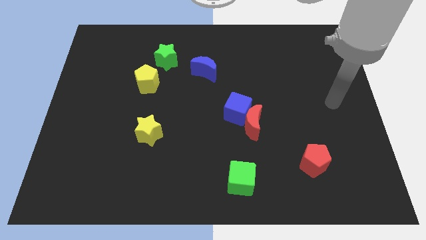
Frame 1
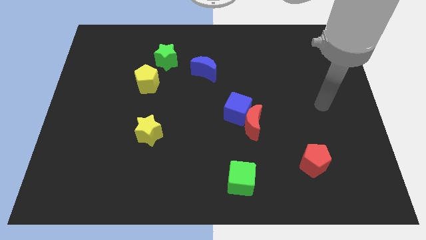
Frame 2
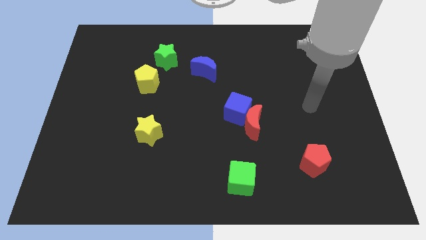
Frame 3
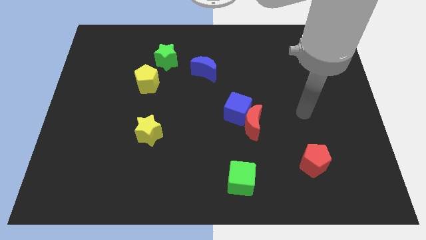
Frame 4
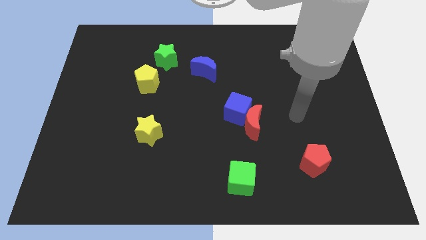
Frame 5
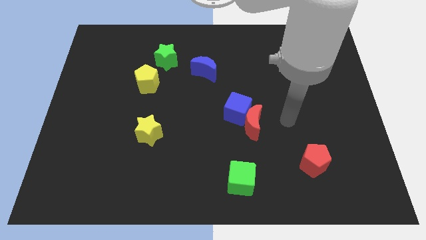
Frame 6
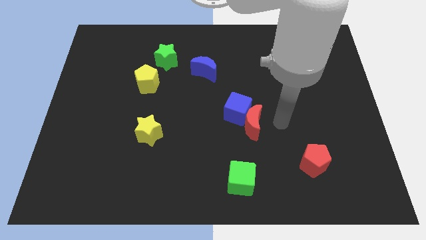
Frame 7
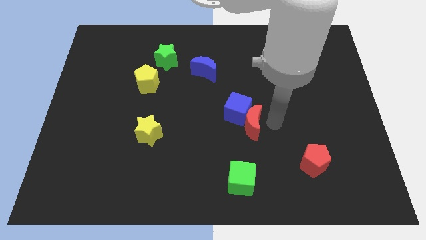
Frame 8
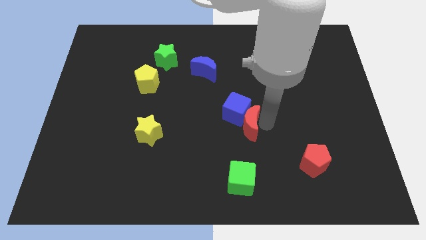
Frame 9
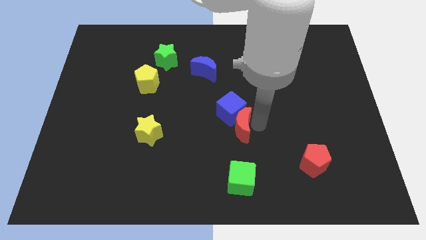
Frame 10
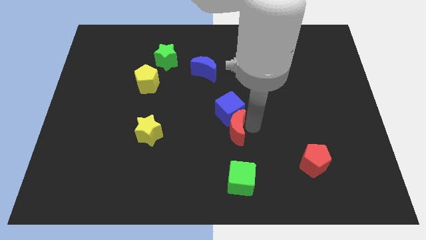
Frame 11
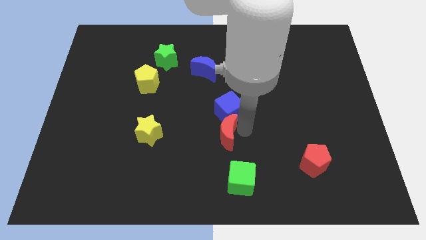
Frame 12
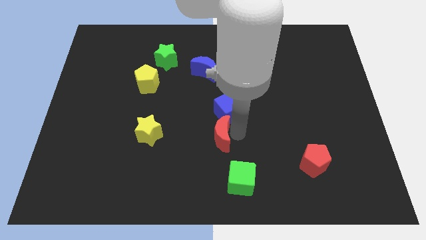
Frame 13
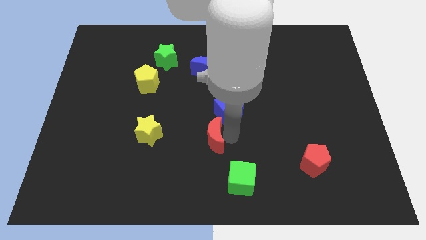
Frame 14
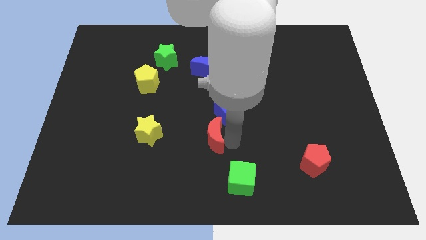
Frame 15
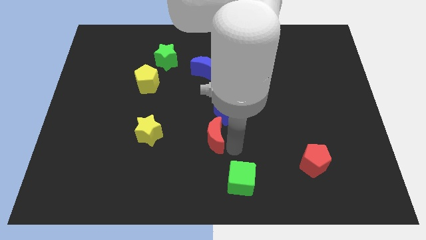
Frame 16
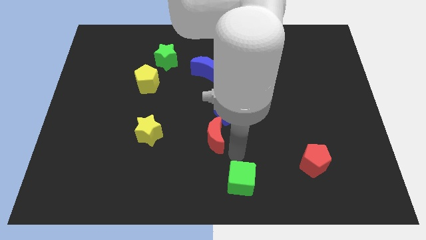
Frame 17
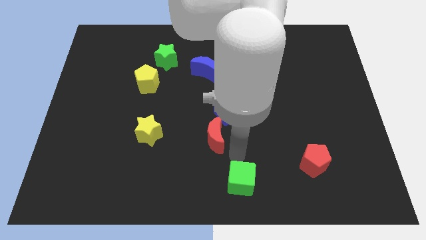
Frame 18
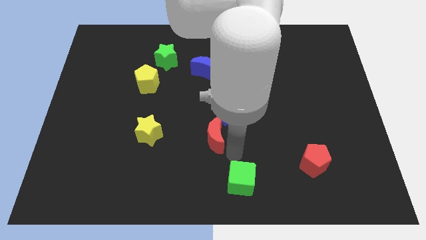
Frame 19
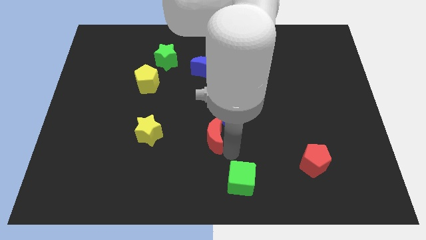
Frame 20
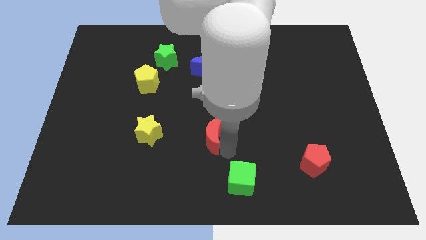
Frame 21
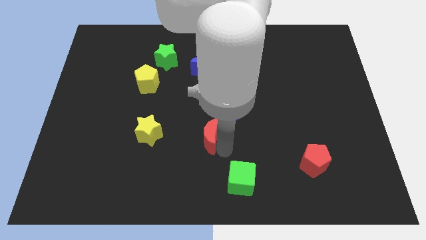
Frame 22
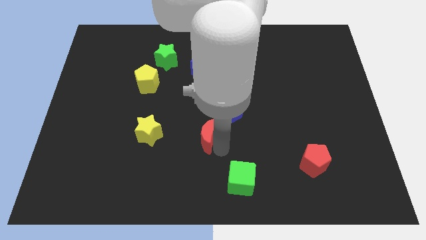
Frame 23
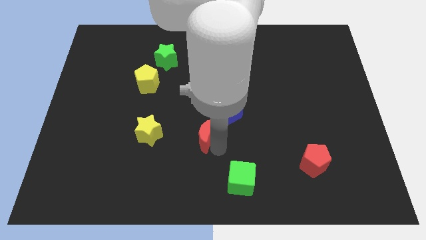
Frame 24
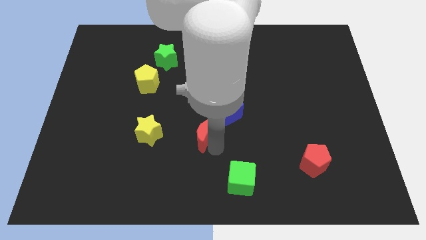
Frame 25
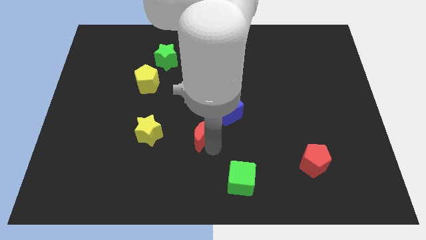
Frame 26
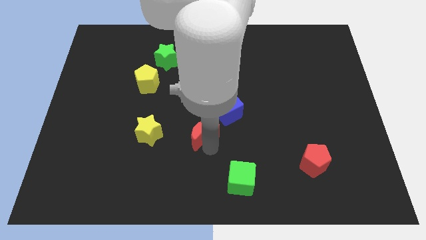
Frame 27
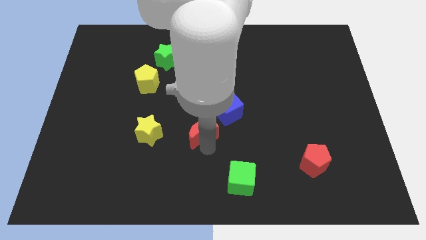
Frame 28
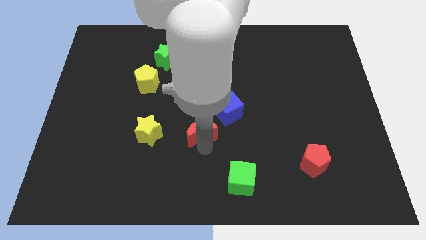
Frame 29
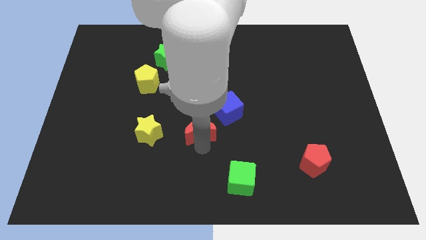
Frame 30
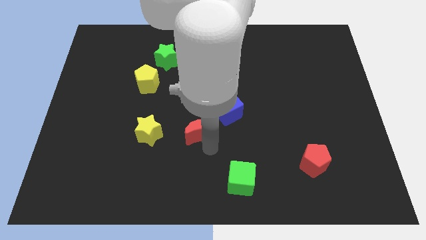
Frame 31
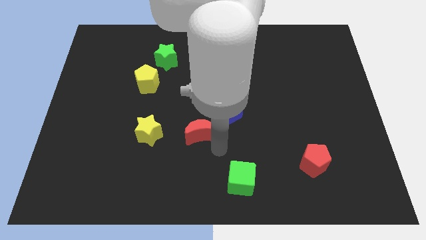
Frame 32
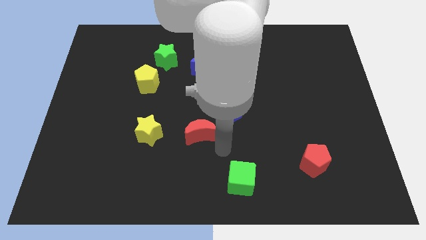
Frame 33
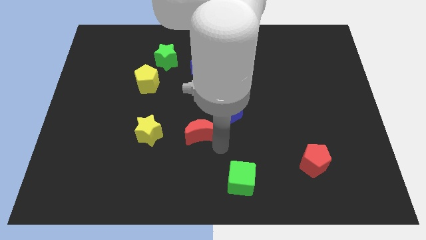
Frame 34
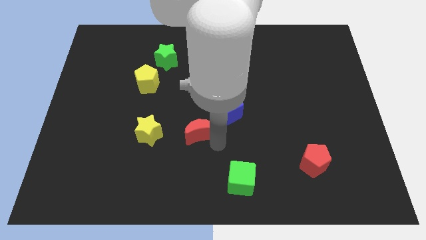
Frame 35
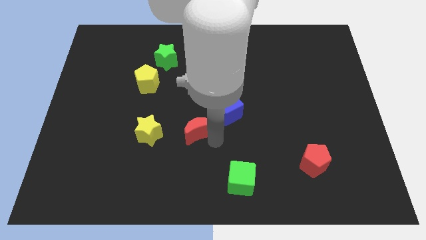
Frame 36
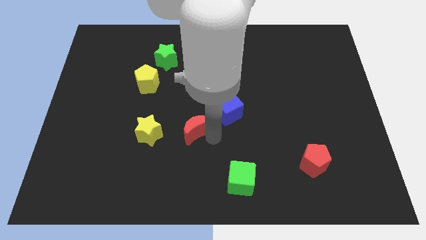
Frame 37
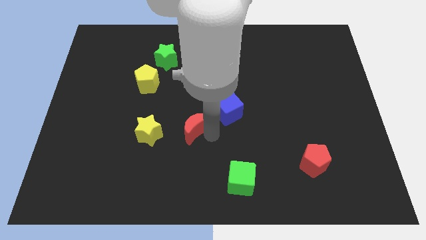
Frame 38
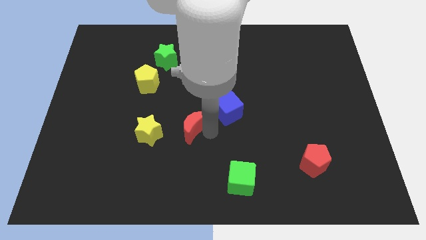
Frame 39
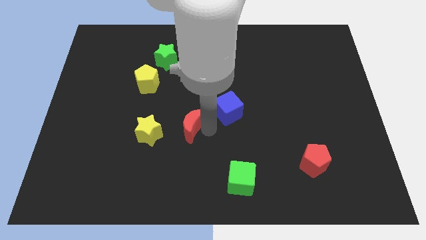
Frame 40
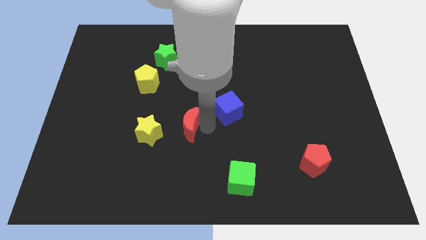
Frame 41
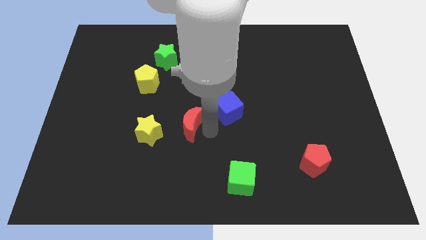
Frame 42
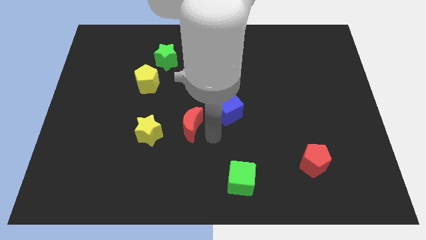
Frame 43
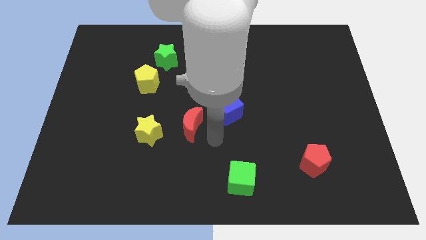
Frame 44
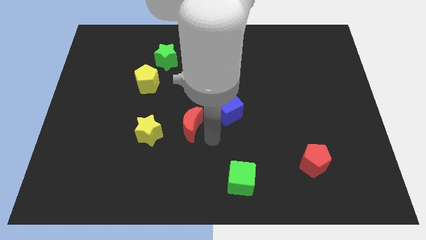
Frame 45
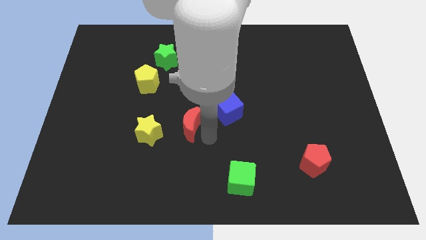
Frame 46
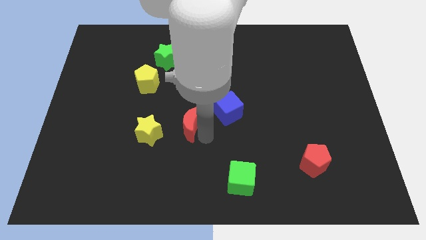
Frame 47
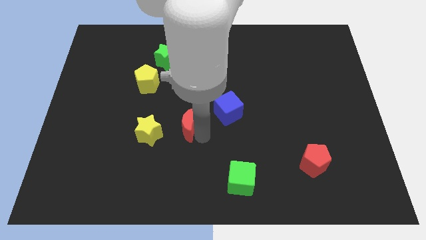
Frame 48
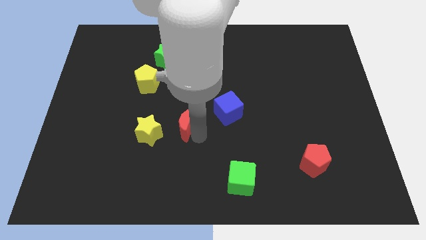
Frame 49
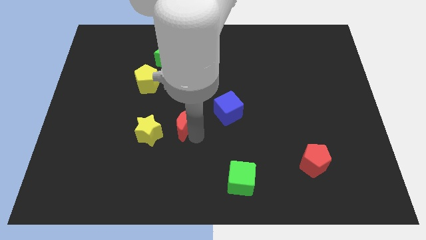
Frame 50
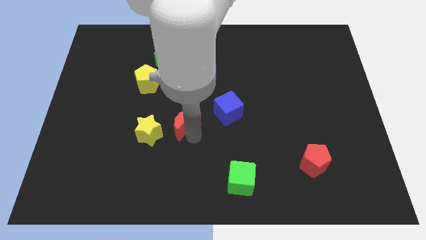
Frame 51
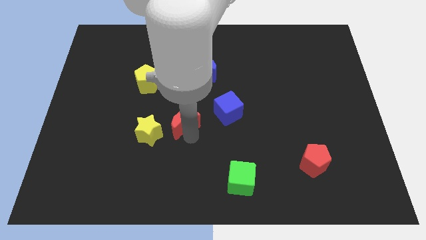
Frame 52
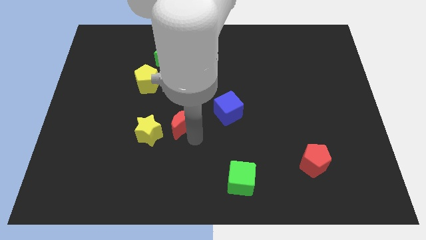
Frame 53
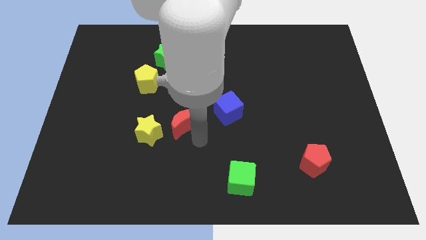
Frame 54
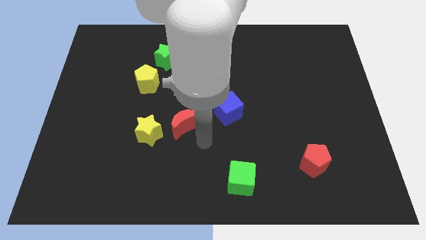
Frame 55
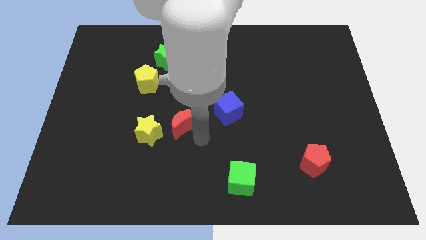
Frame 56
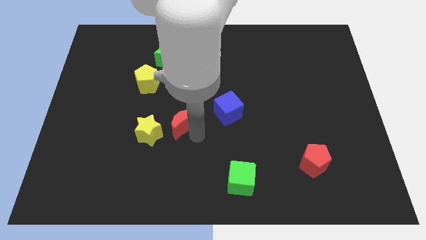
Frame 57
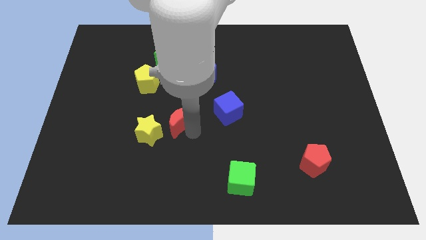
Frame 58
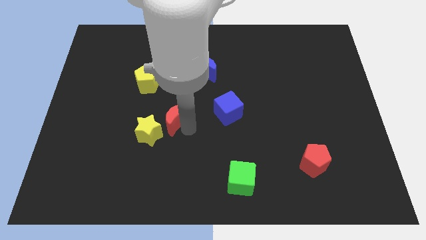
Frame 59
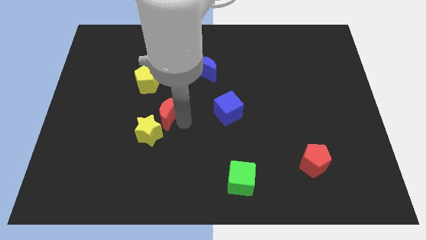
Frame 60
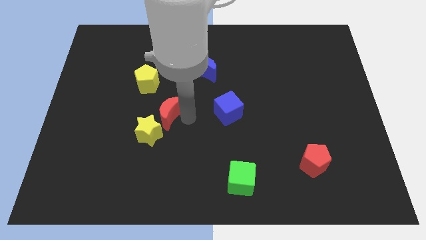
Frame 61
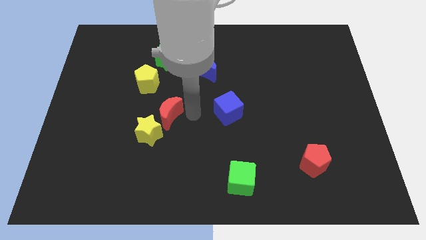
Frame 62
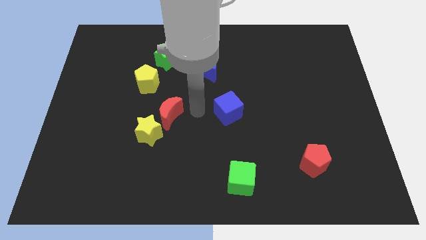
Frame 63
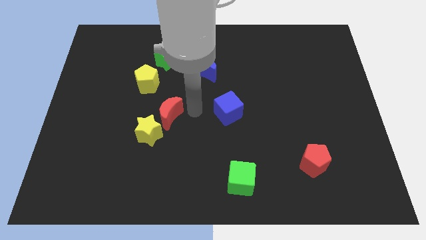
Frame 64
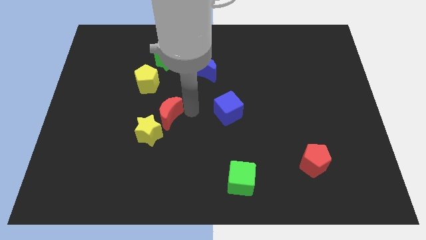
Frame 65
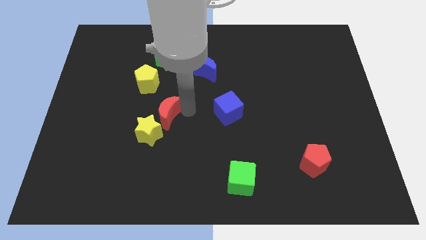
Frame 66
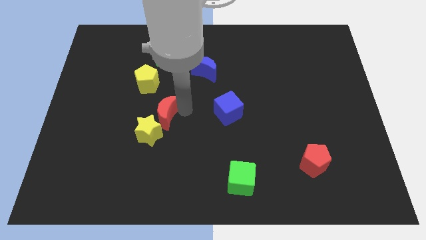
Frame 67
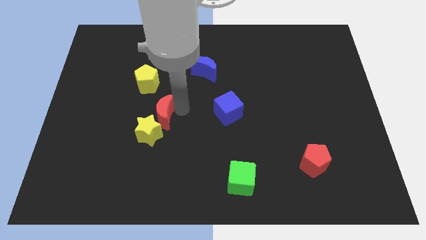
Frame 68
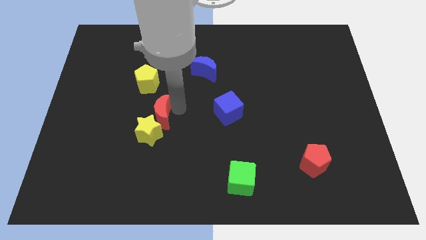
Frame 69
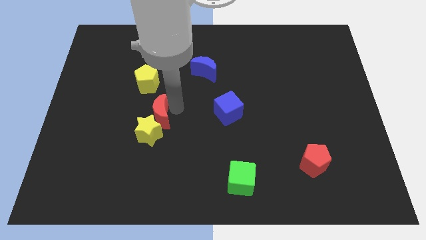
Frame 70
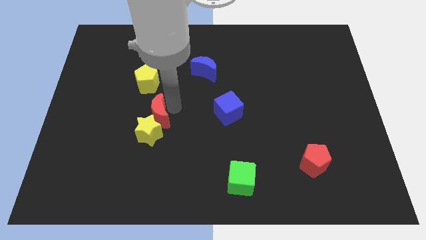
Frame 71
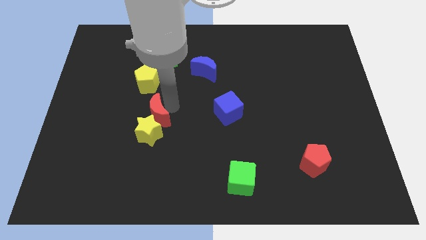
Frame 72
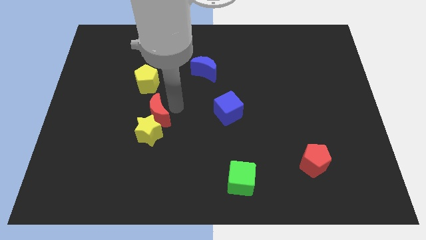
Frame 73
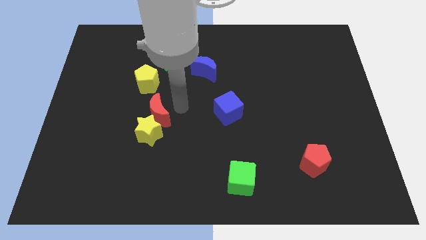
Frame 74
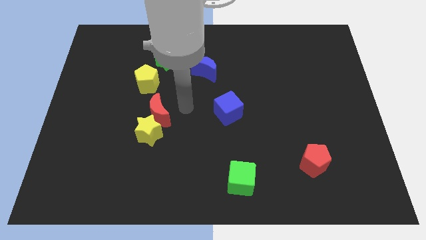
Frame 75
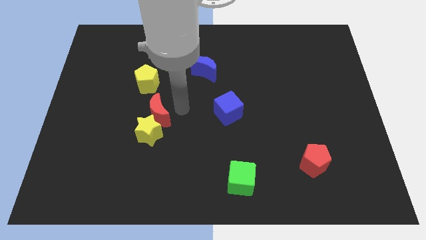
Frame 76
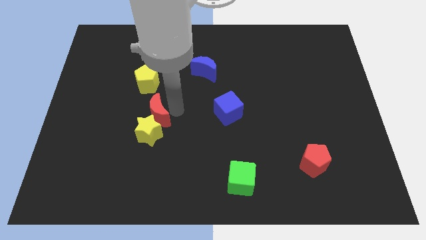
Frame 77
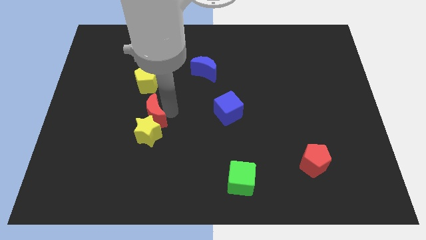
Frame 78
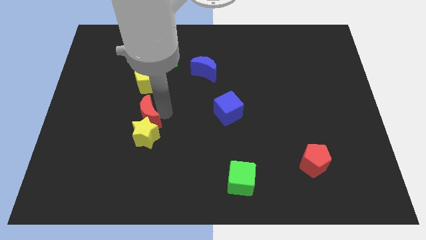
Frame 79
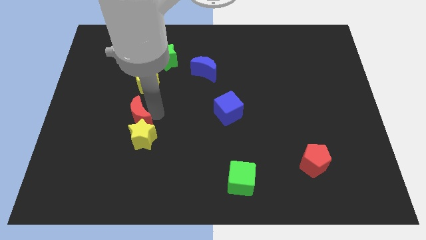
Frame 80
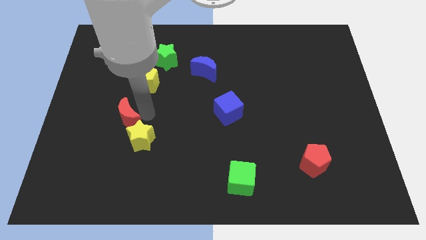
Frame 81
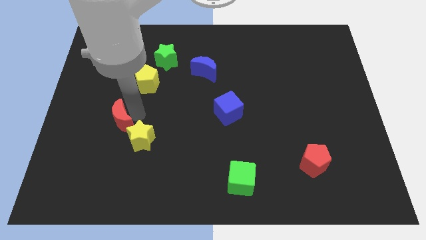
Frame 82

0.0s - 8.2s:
put the red moon just left of the yellow star
